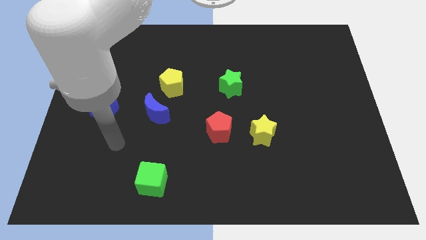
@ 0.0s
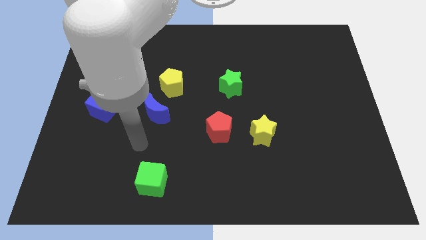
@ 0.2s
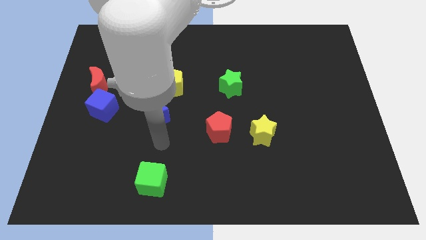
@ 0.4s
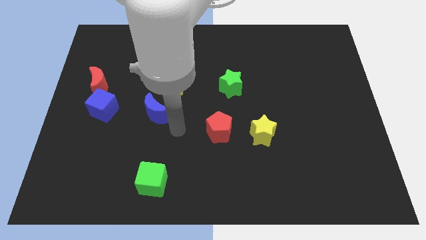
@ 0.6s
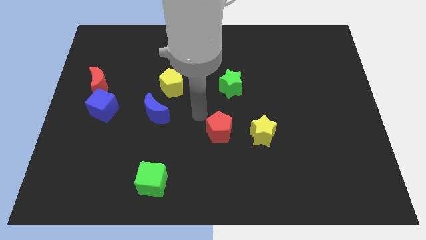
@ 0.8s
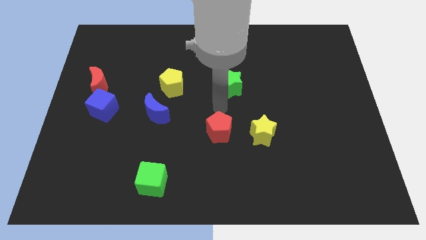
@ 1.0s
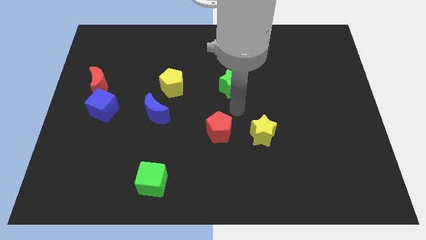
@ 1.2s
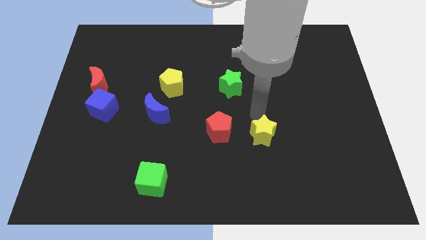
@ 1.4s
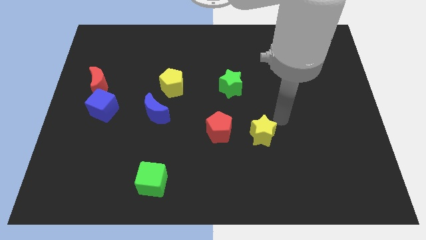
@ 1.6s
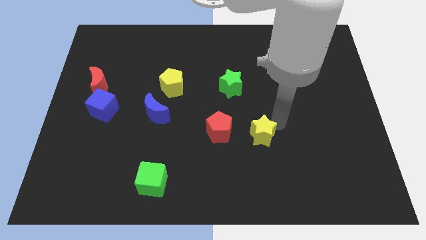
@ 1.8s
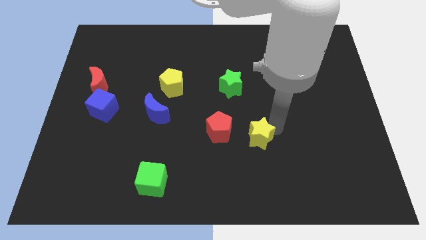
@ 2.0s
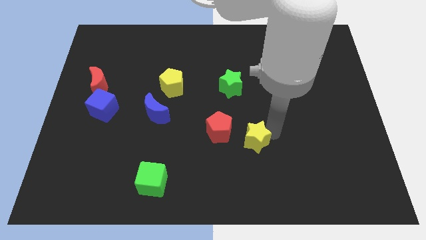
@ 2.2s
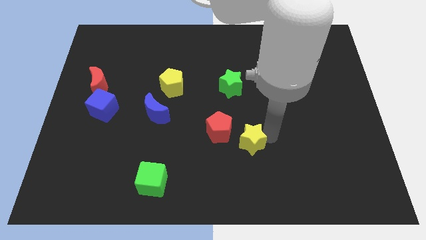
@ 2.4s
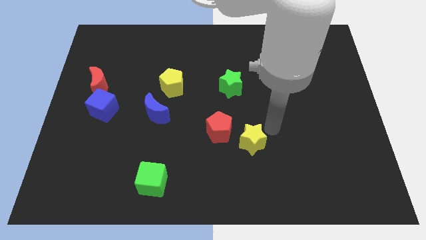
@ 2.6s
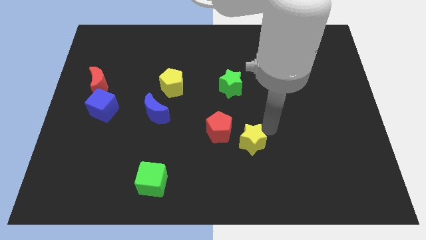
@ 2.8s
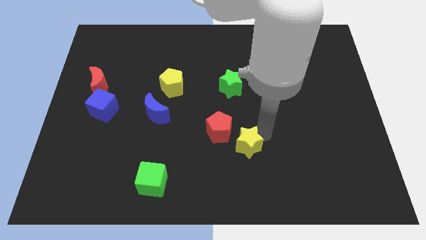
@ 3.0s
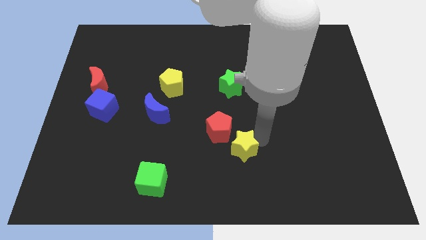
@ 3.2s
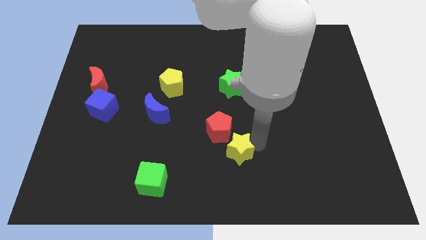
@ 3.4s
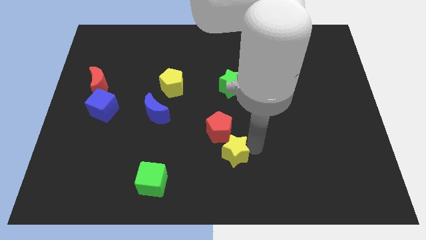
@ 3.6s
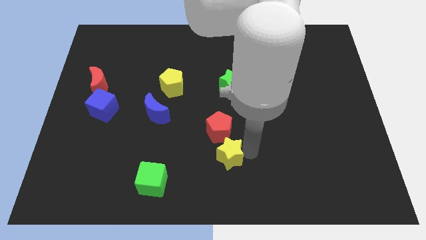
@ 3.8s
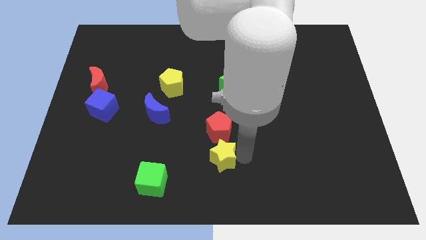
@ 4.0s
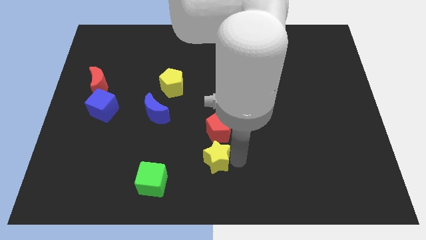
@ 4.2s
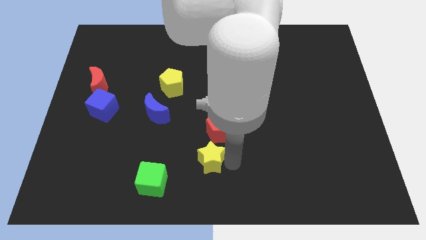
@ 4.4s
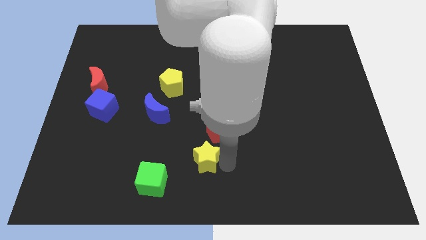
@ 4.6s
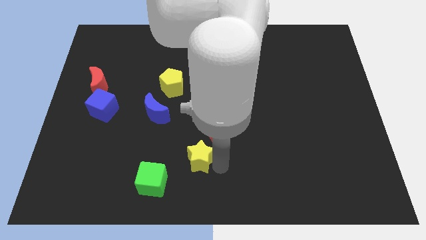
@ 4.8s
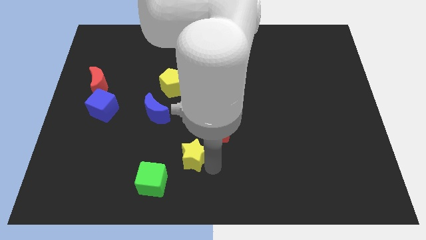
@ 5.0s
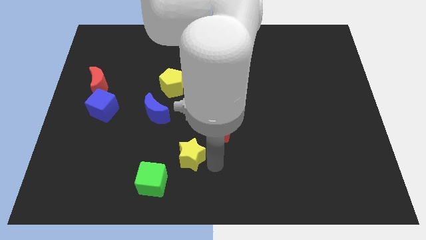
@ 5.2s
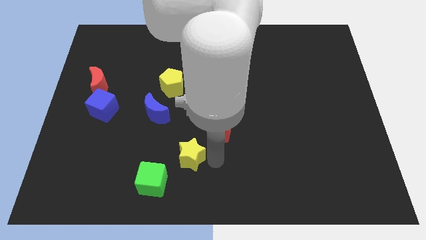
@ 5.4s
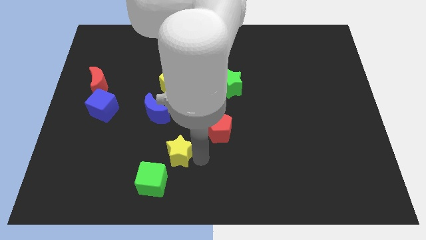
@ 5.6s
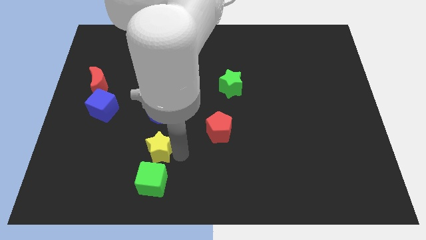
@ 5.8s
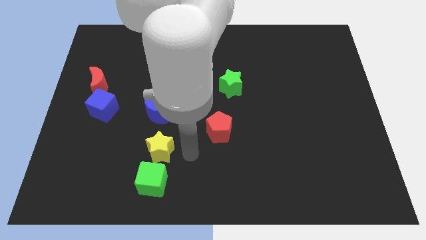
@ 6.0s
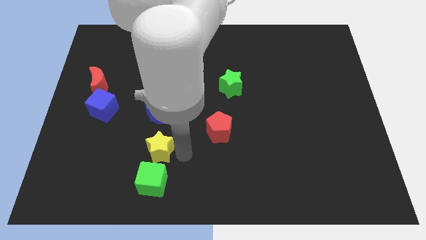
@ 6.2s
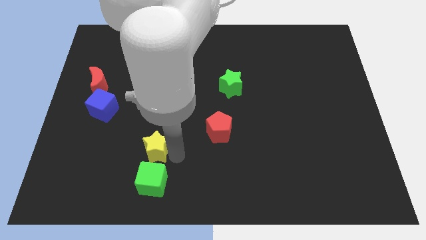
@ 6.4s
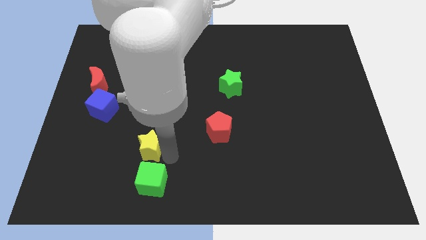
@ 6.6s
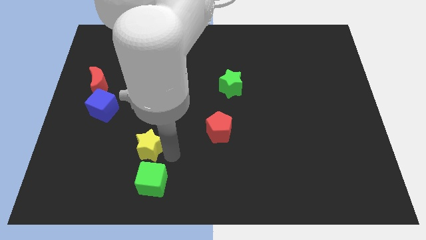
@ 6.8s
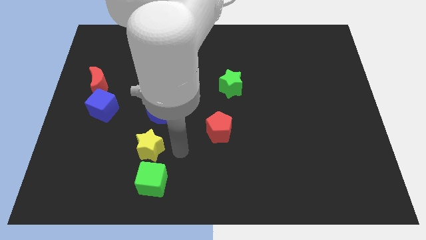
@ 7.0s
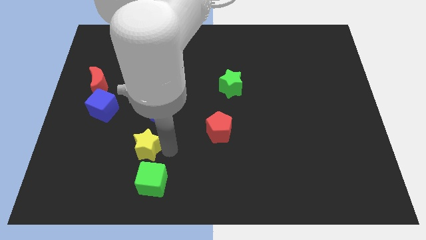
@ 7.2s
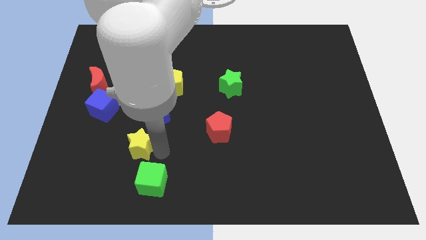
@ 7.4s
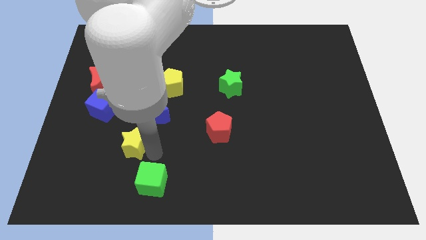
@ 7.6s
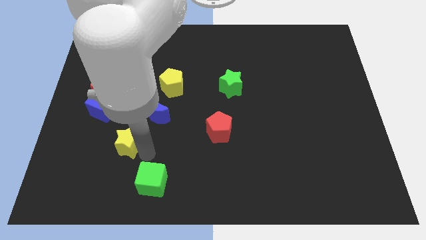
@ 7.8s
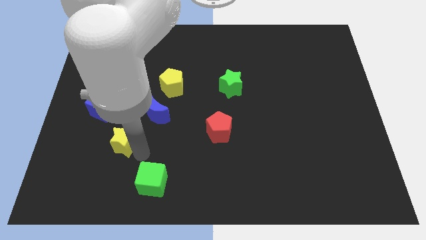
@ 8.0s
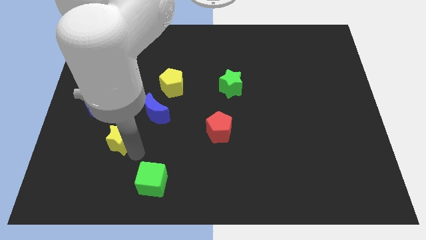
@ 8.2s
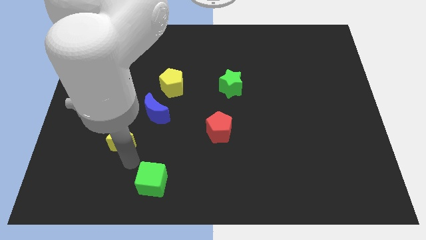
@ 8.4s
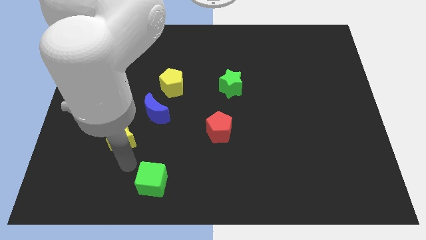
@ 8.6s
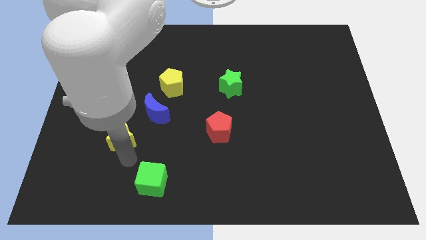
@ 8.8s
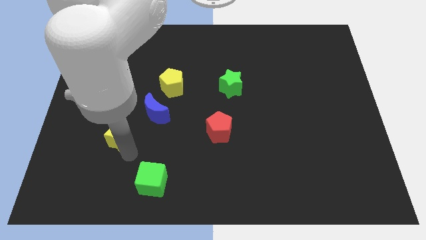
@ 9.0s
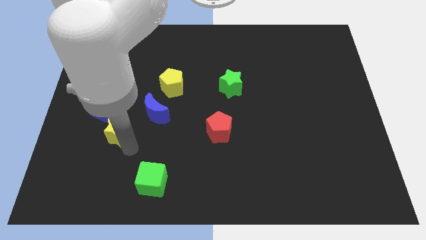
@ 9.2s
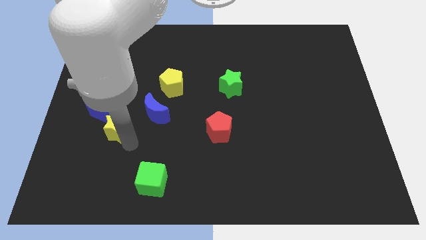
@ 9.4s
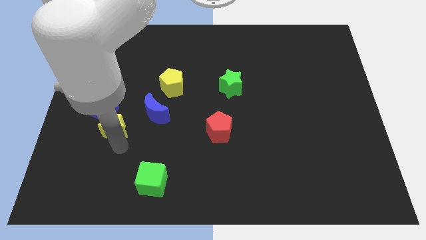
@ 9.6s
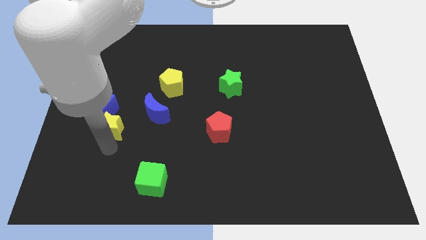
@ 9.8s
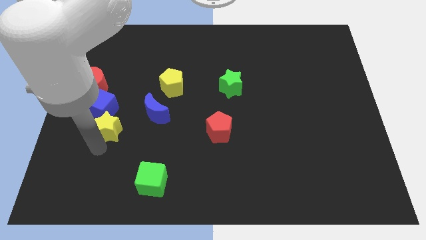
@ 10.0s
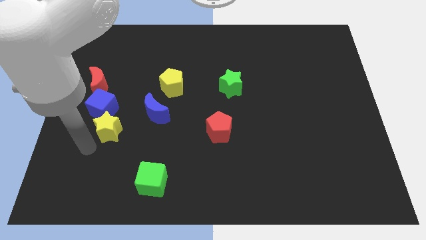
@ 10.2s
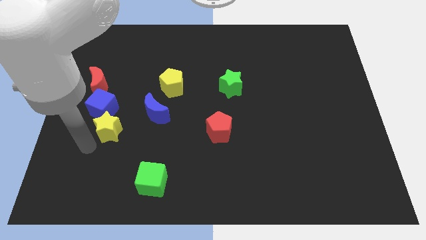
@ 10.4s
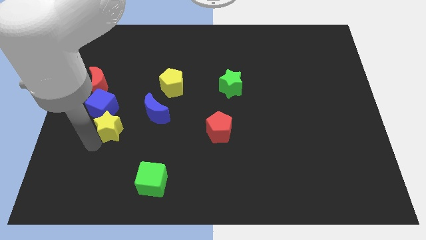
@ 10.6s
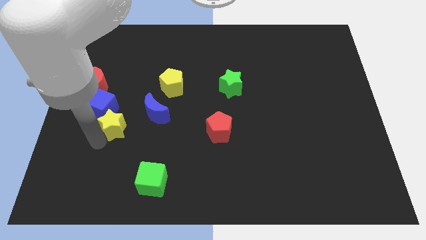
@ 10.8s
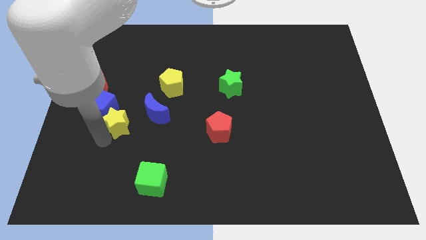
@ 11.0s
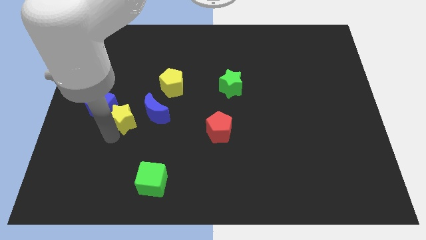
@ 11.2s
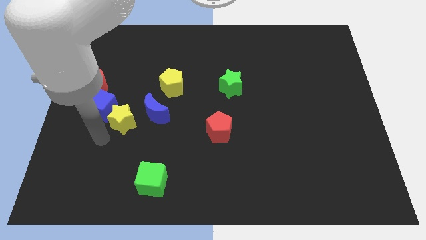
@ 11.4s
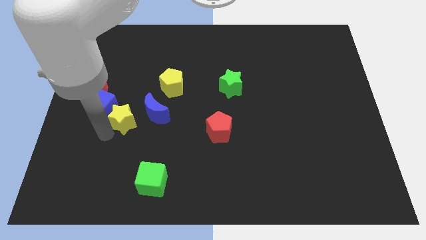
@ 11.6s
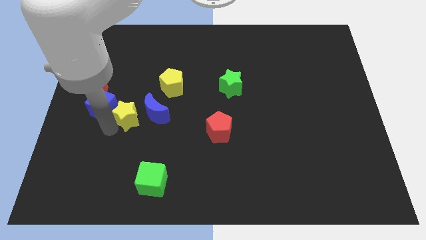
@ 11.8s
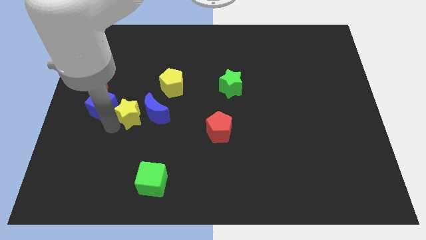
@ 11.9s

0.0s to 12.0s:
move the yellow star to the bottom left side of the yellow pentagon

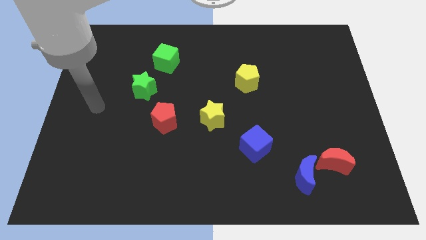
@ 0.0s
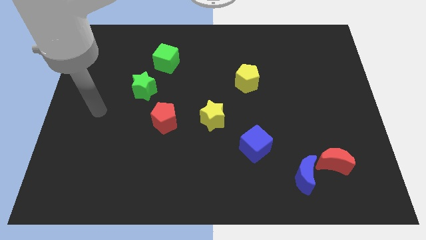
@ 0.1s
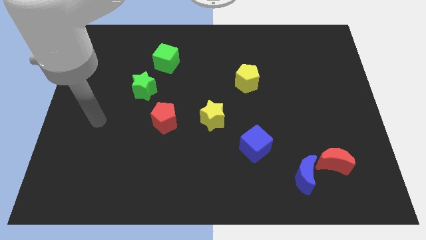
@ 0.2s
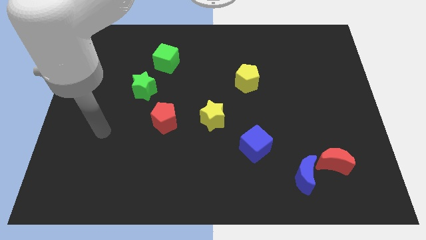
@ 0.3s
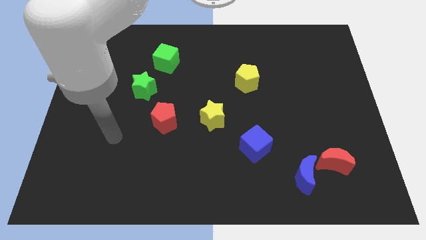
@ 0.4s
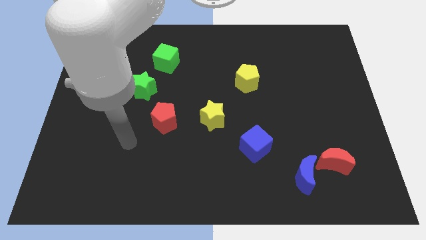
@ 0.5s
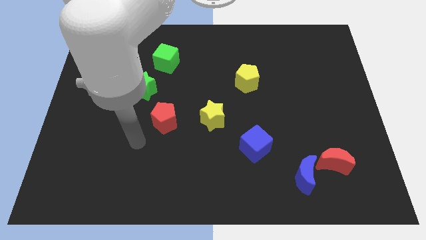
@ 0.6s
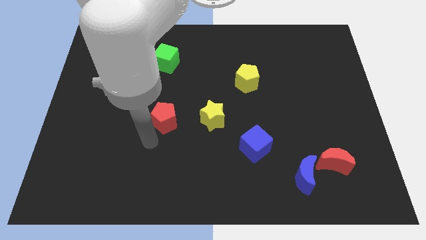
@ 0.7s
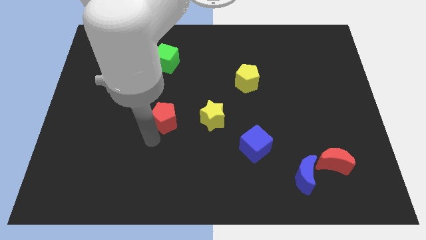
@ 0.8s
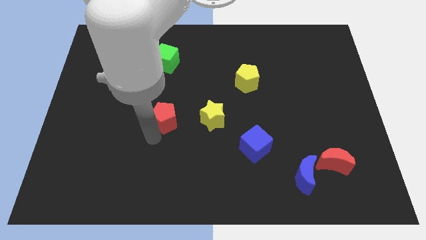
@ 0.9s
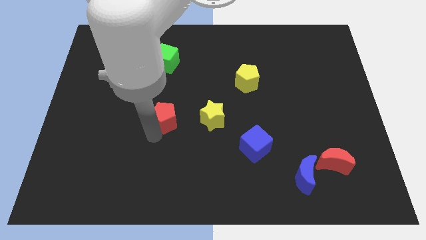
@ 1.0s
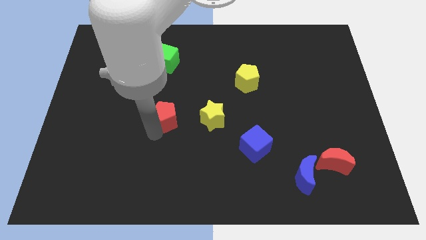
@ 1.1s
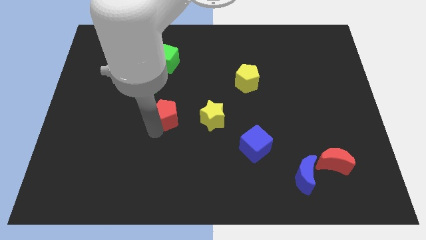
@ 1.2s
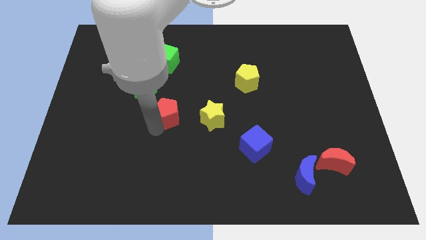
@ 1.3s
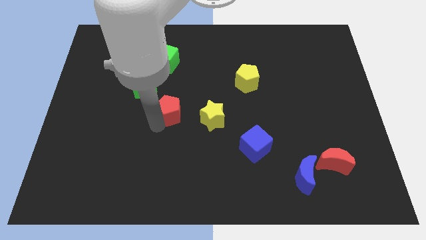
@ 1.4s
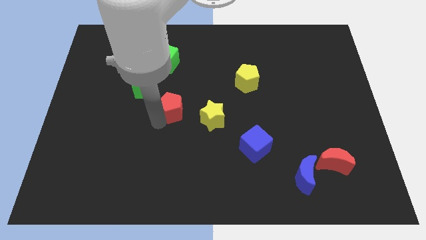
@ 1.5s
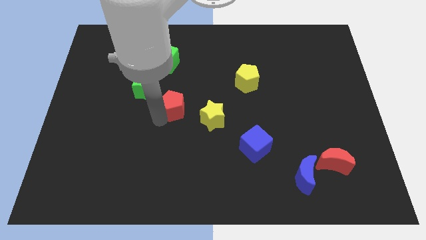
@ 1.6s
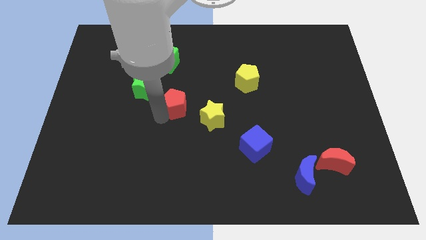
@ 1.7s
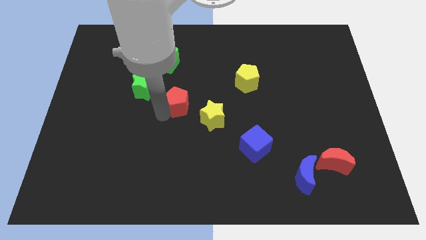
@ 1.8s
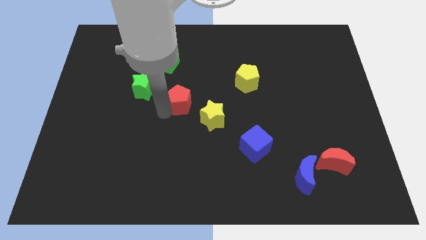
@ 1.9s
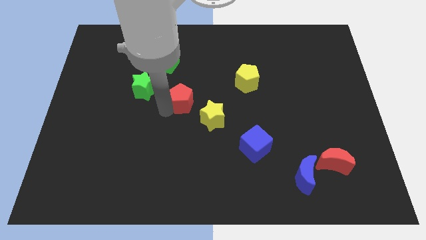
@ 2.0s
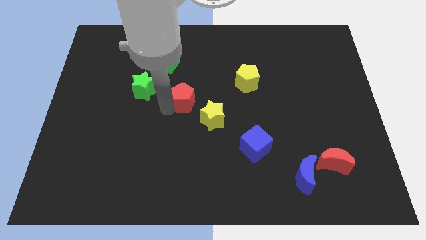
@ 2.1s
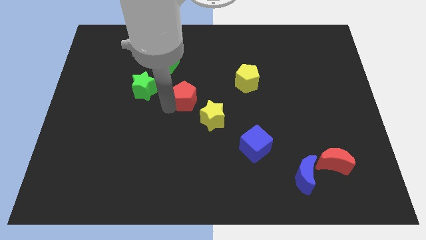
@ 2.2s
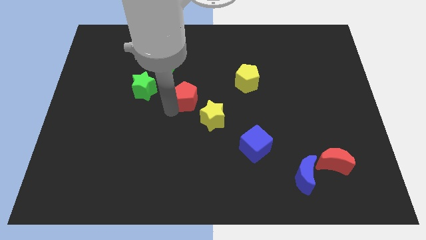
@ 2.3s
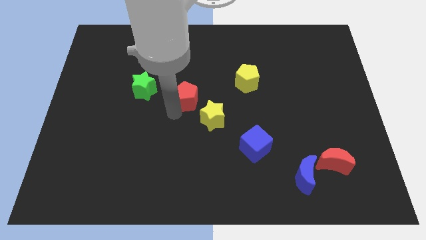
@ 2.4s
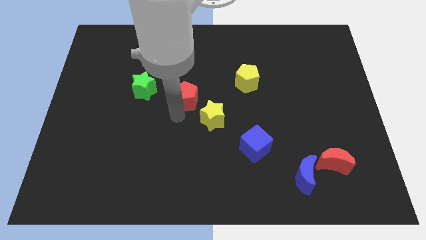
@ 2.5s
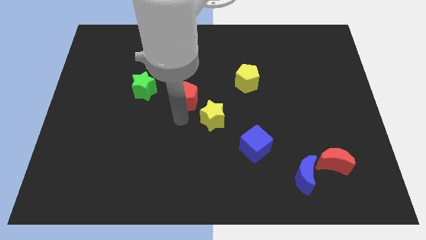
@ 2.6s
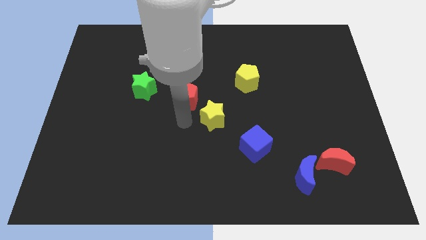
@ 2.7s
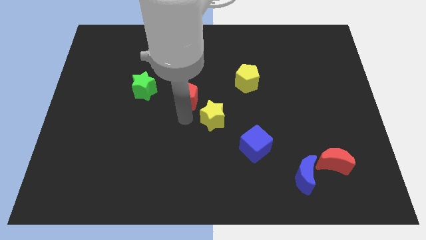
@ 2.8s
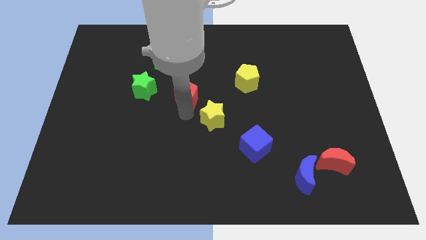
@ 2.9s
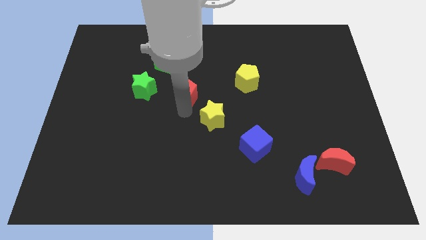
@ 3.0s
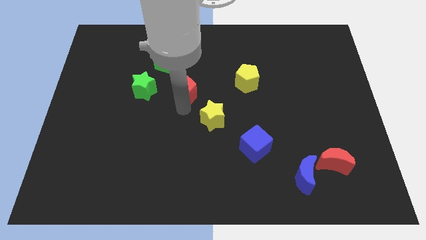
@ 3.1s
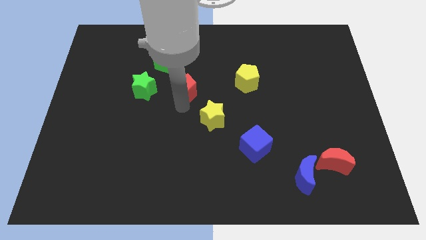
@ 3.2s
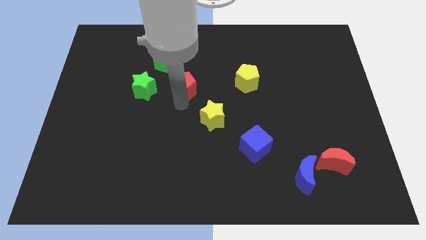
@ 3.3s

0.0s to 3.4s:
put the red pentagon to the left side of the yellow pentagon
